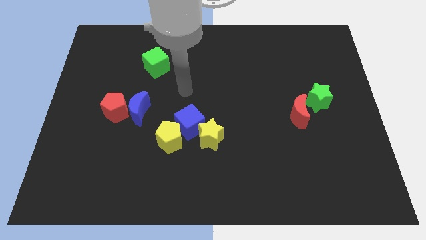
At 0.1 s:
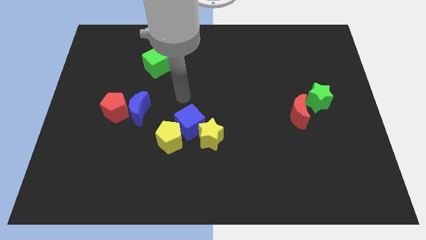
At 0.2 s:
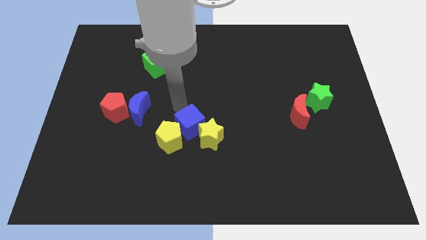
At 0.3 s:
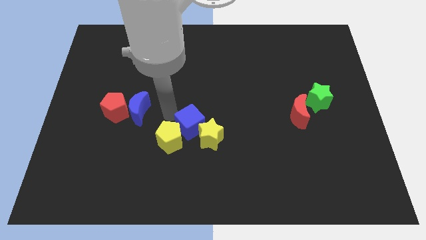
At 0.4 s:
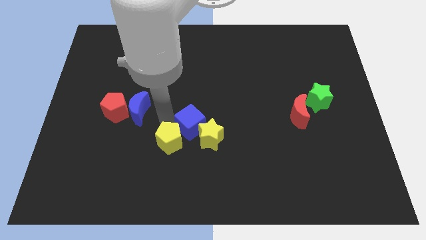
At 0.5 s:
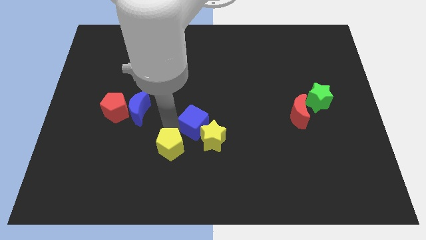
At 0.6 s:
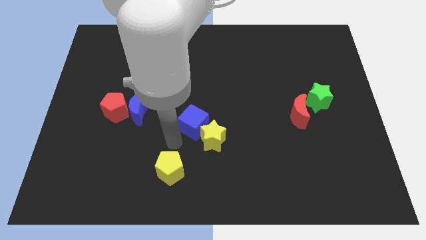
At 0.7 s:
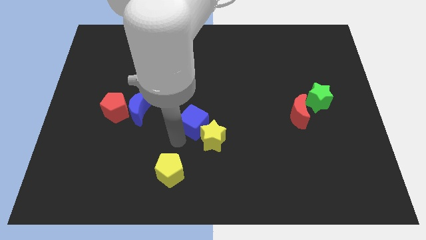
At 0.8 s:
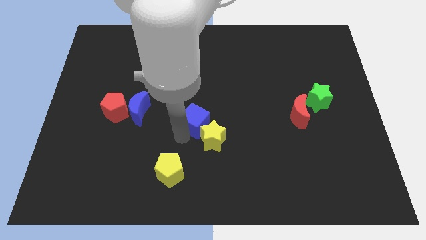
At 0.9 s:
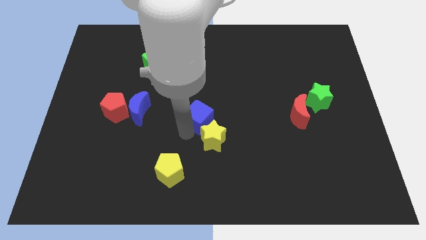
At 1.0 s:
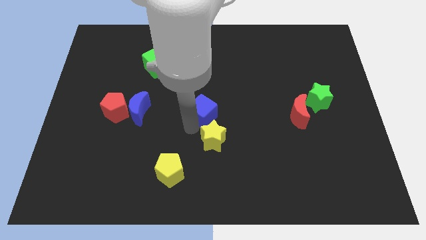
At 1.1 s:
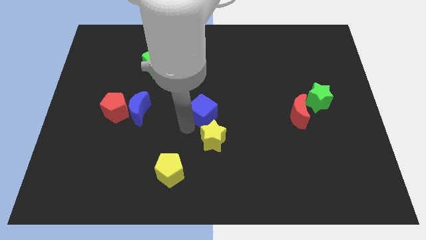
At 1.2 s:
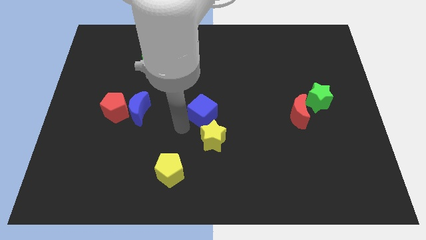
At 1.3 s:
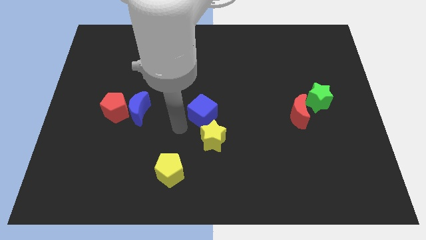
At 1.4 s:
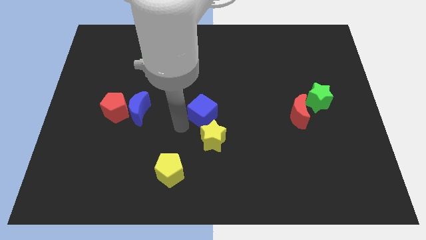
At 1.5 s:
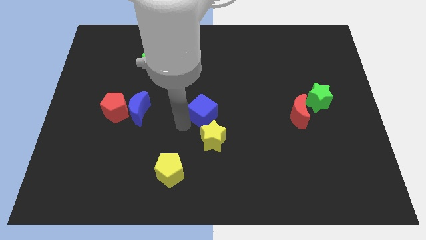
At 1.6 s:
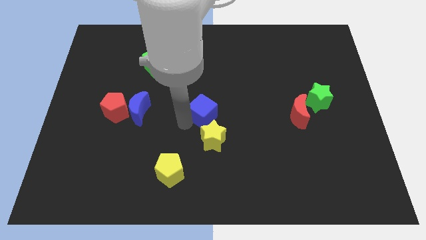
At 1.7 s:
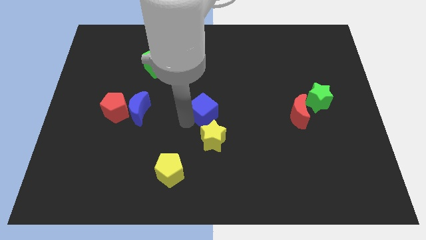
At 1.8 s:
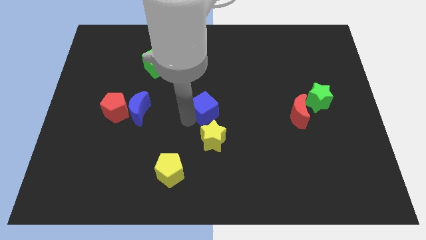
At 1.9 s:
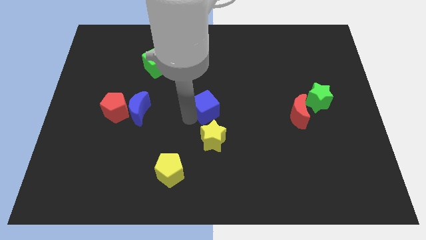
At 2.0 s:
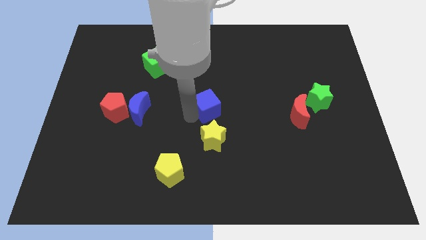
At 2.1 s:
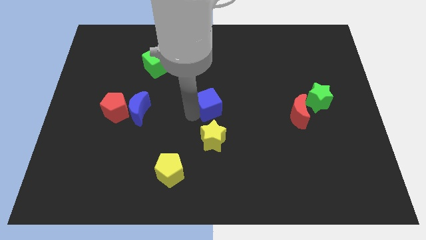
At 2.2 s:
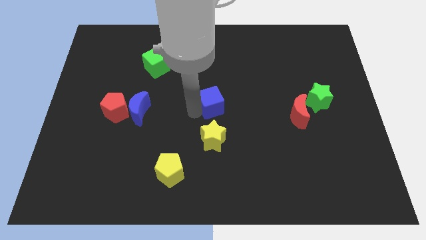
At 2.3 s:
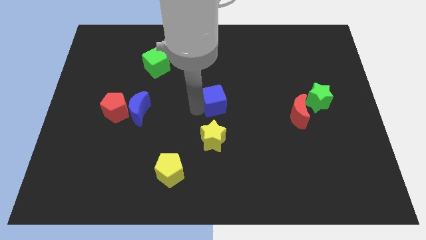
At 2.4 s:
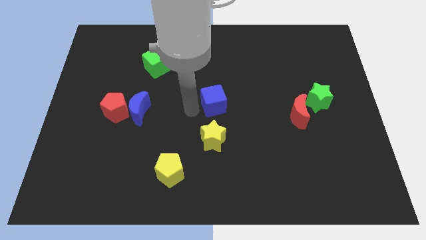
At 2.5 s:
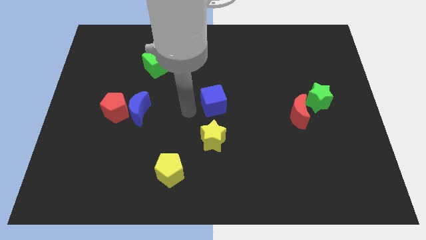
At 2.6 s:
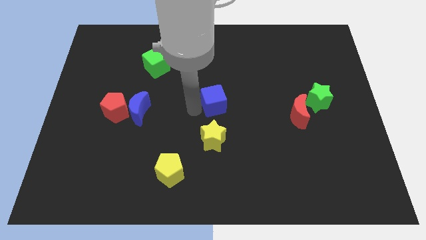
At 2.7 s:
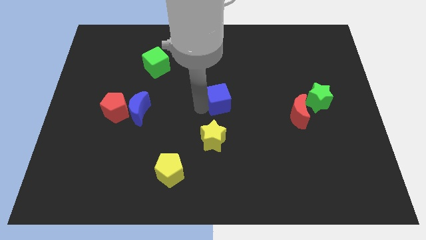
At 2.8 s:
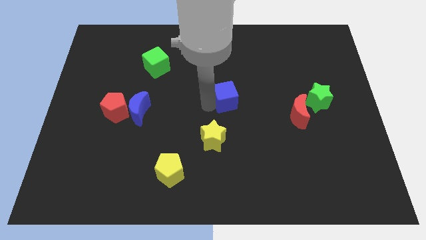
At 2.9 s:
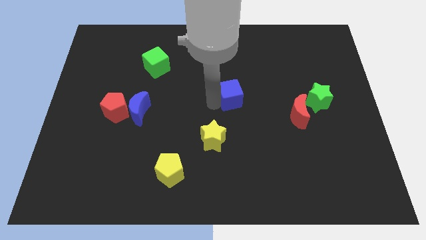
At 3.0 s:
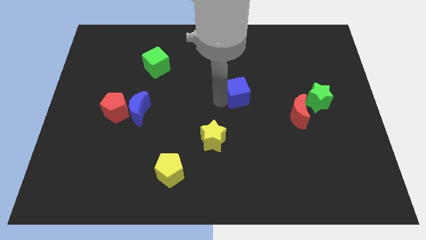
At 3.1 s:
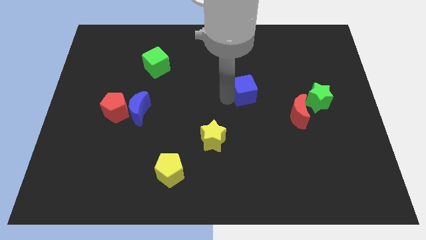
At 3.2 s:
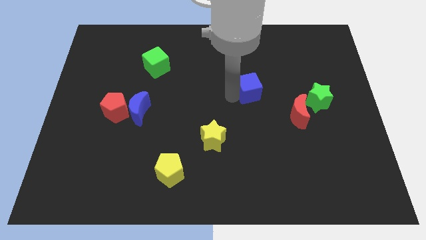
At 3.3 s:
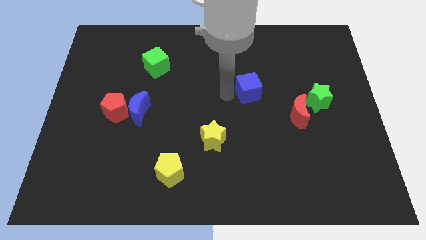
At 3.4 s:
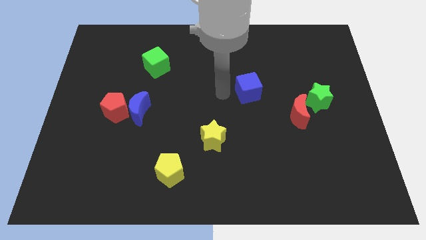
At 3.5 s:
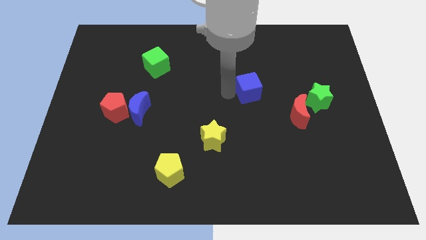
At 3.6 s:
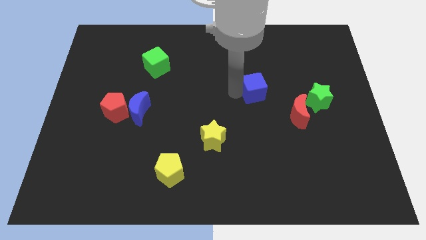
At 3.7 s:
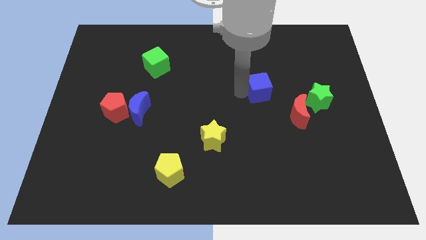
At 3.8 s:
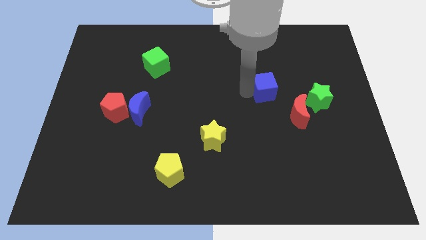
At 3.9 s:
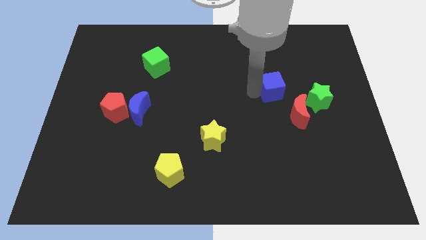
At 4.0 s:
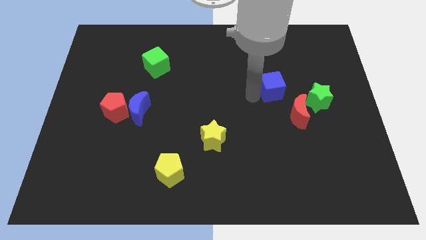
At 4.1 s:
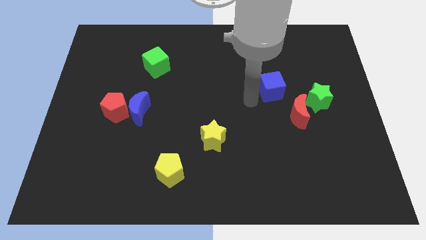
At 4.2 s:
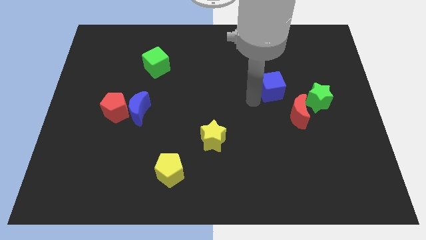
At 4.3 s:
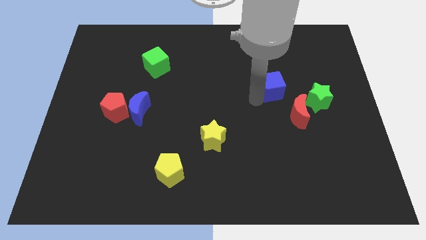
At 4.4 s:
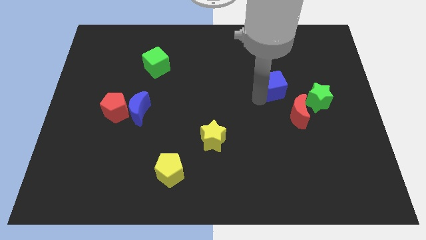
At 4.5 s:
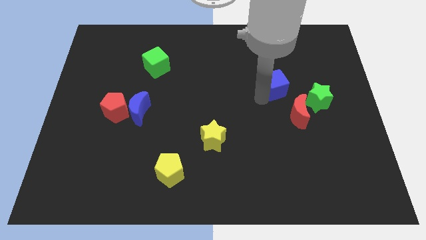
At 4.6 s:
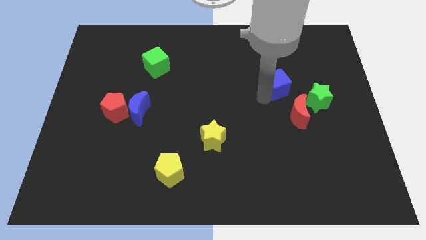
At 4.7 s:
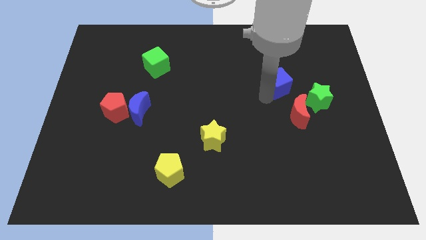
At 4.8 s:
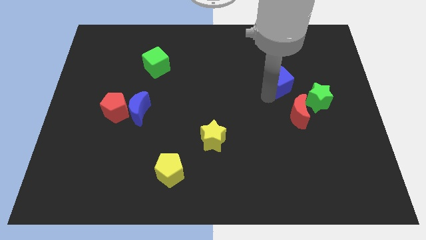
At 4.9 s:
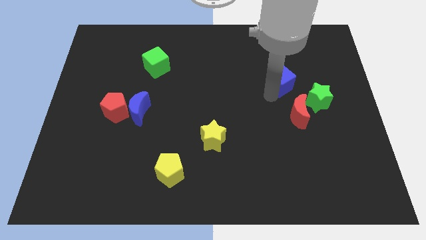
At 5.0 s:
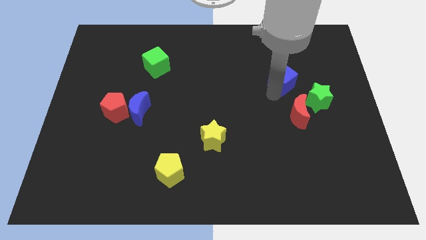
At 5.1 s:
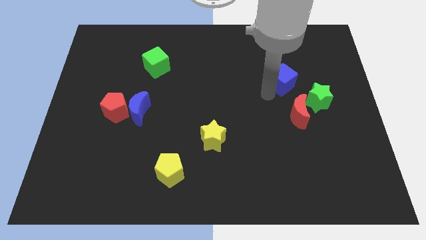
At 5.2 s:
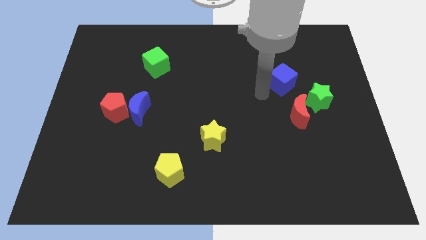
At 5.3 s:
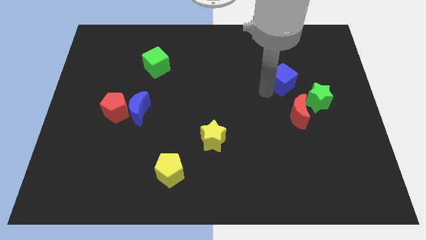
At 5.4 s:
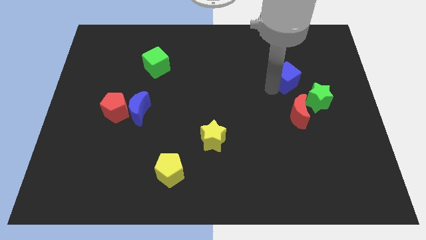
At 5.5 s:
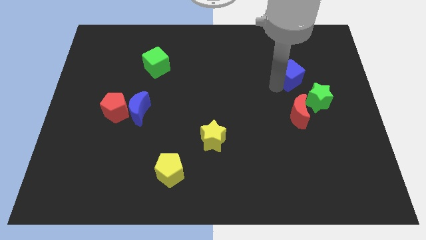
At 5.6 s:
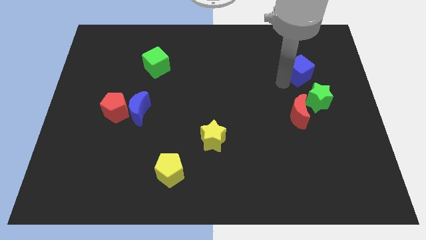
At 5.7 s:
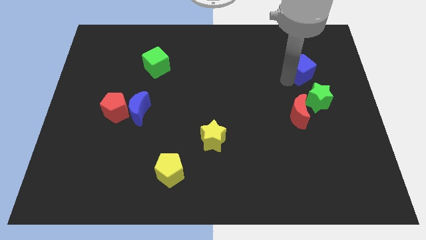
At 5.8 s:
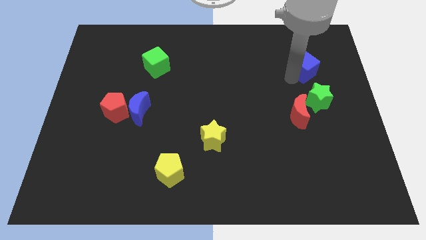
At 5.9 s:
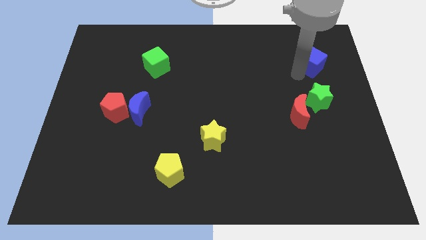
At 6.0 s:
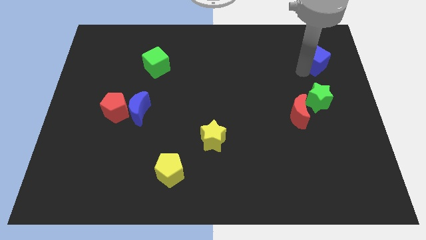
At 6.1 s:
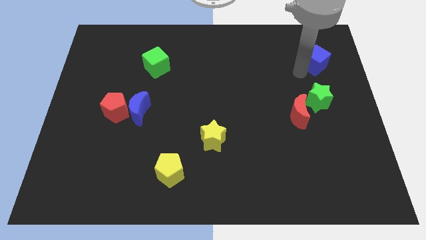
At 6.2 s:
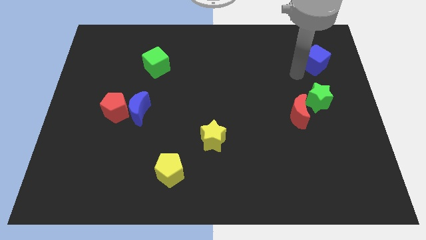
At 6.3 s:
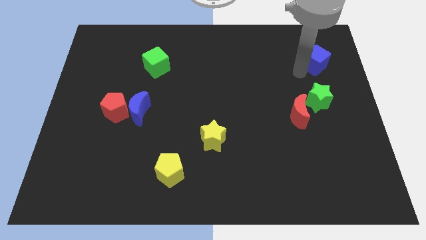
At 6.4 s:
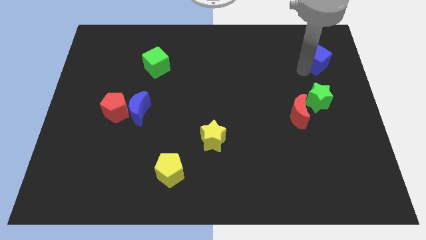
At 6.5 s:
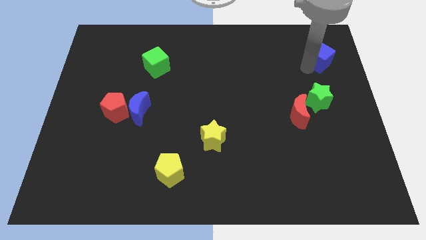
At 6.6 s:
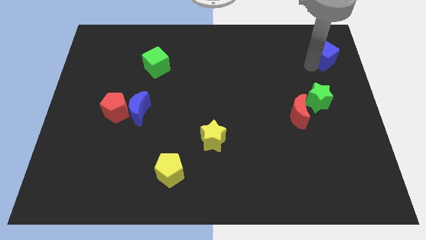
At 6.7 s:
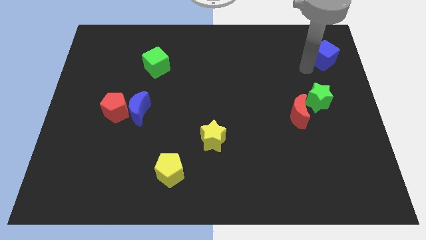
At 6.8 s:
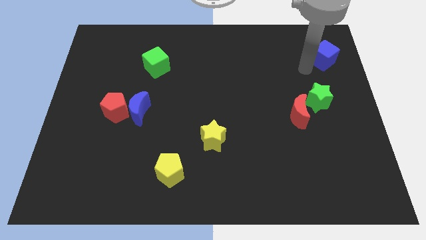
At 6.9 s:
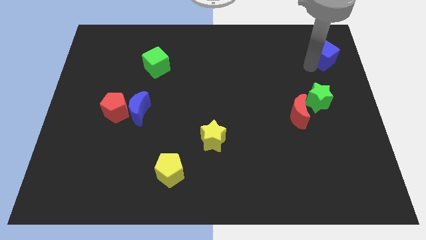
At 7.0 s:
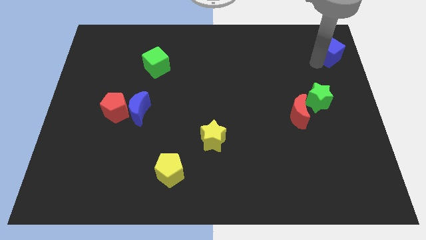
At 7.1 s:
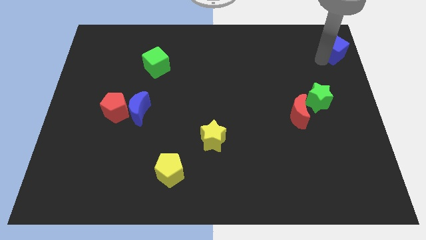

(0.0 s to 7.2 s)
slide the blue cube to the upper right corner
